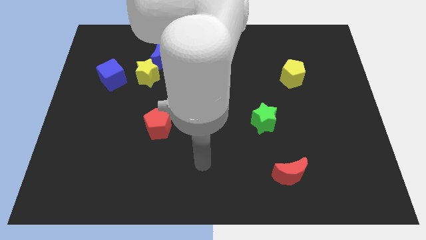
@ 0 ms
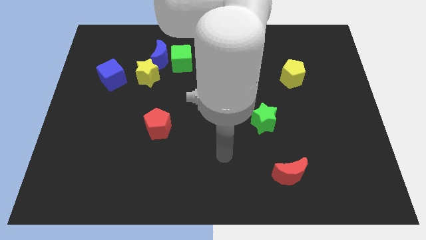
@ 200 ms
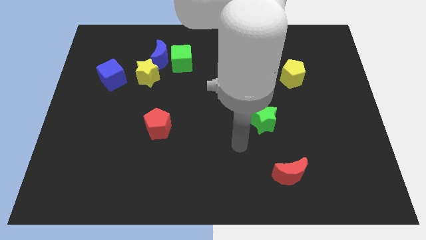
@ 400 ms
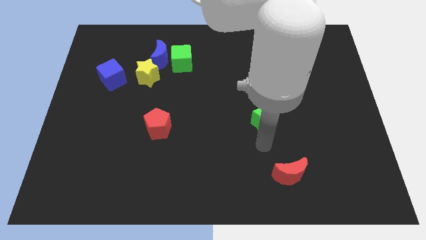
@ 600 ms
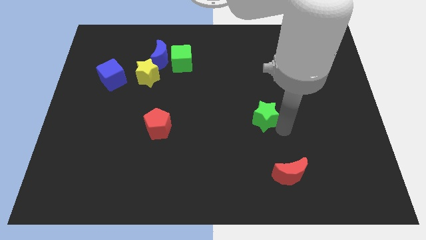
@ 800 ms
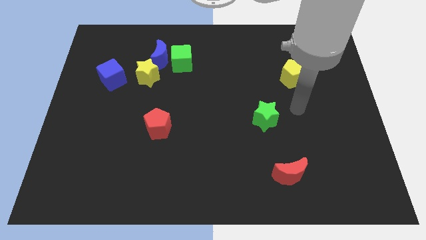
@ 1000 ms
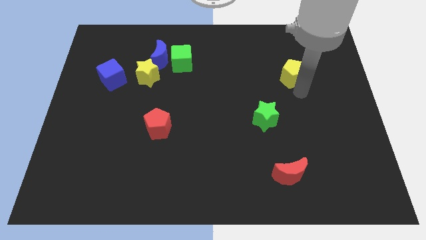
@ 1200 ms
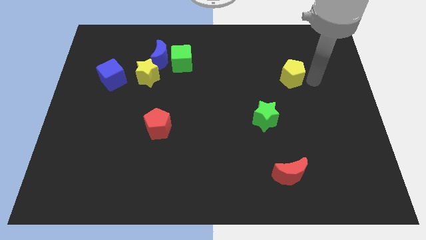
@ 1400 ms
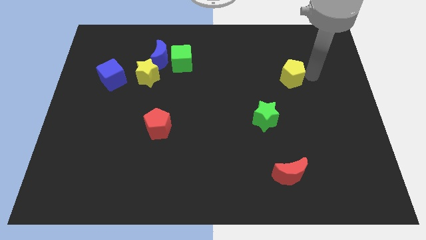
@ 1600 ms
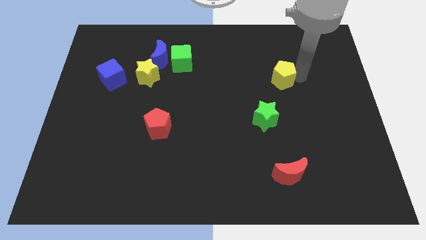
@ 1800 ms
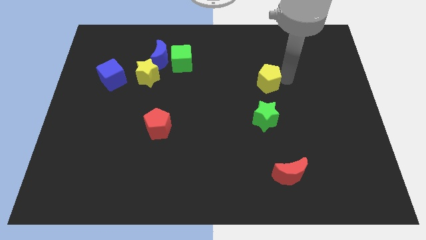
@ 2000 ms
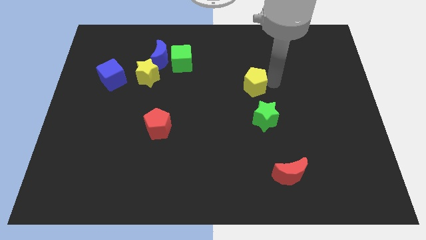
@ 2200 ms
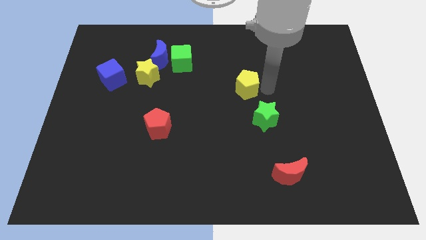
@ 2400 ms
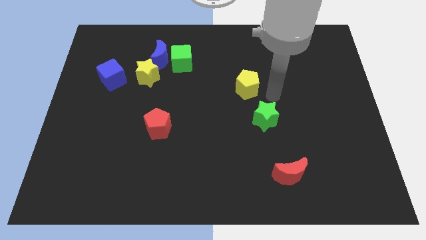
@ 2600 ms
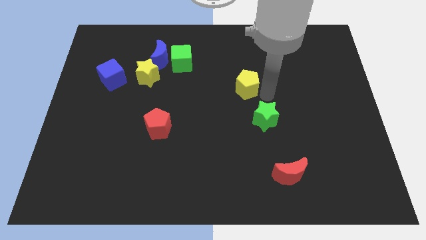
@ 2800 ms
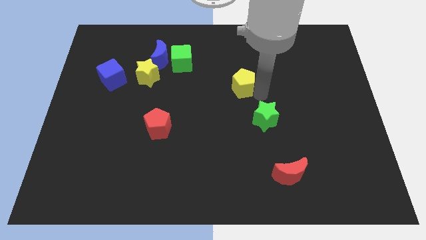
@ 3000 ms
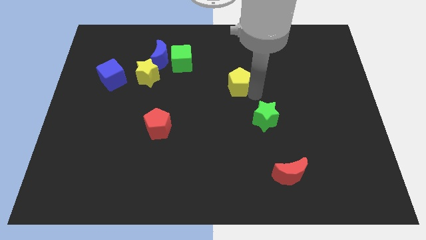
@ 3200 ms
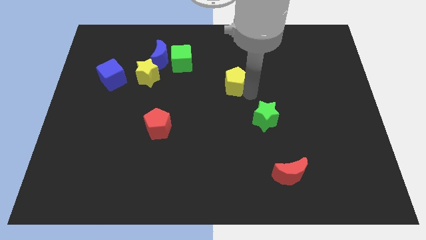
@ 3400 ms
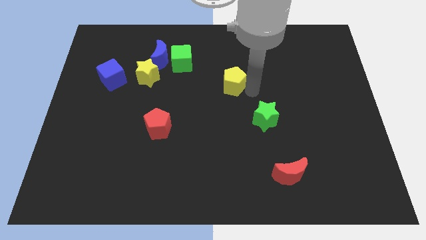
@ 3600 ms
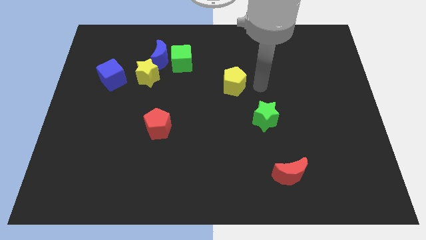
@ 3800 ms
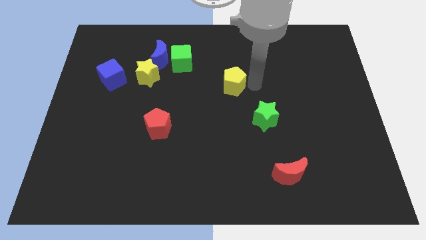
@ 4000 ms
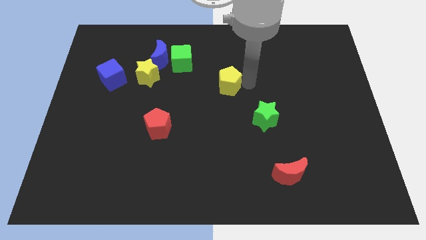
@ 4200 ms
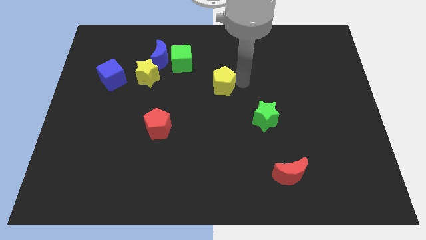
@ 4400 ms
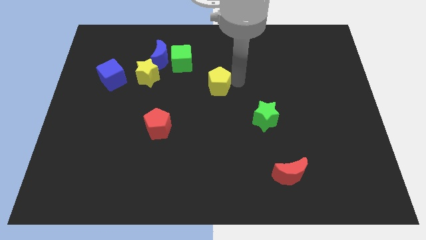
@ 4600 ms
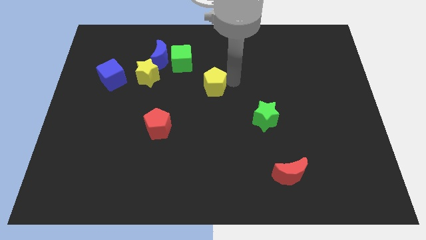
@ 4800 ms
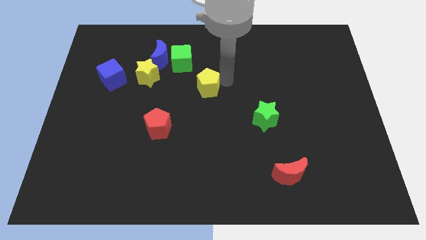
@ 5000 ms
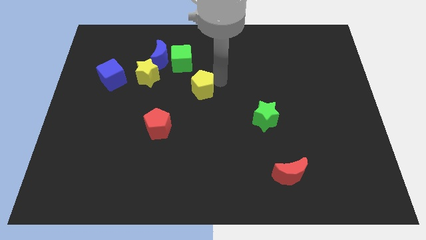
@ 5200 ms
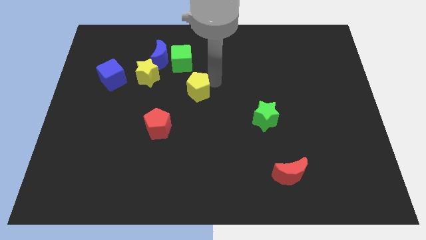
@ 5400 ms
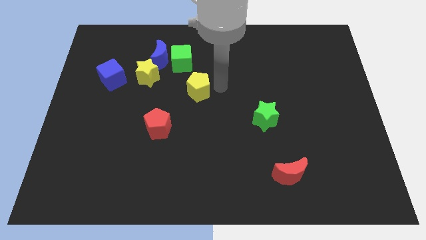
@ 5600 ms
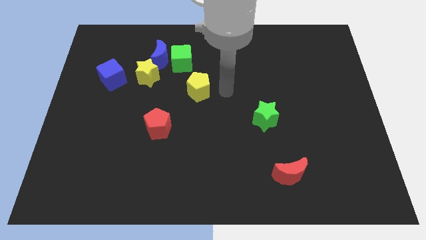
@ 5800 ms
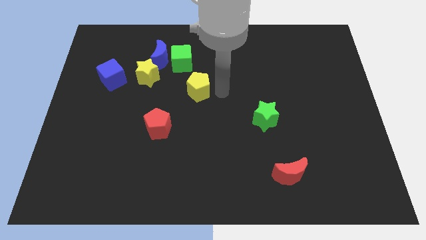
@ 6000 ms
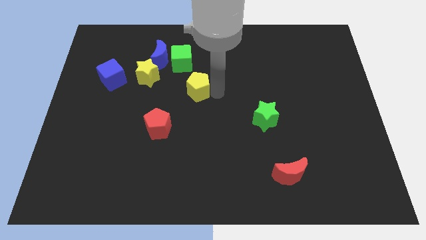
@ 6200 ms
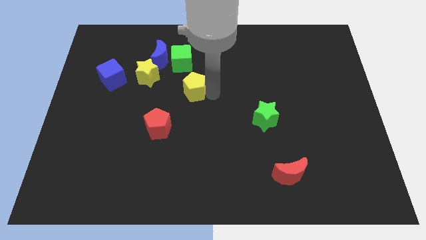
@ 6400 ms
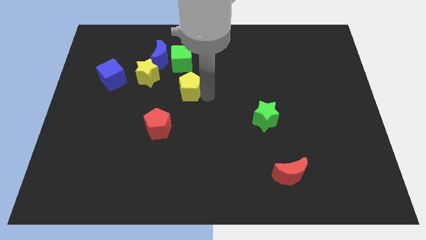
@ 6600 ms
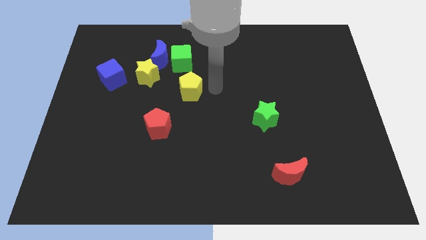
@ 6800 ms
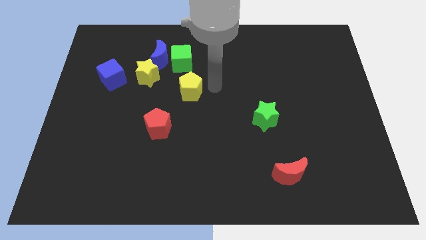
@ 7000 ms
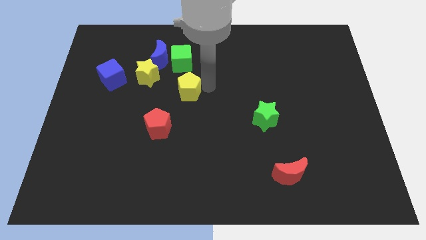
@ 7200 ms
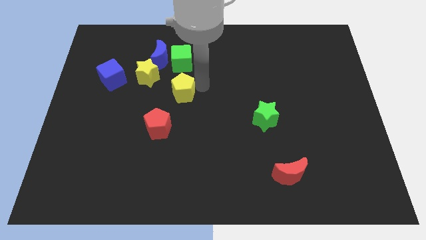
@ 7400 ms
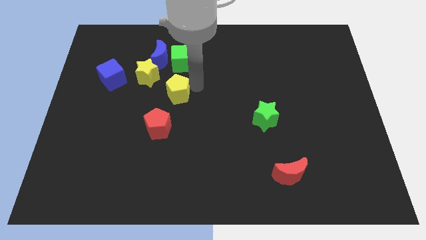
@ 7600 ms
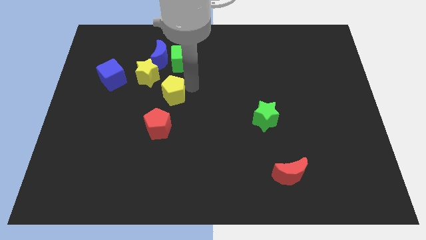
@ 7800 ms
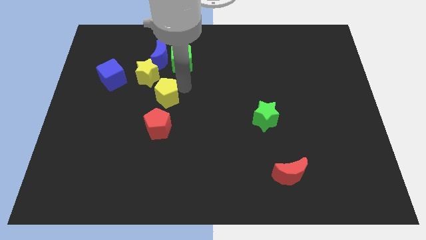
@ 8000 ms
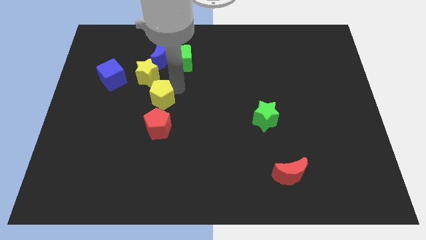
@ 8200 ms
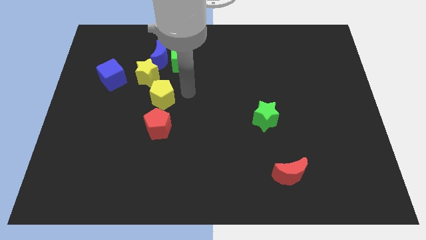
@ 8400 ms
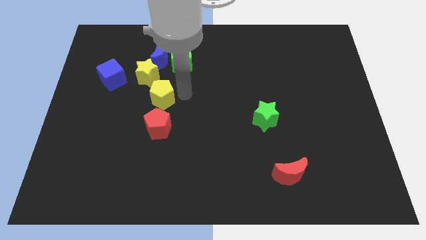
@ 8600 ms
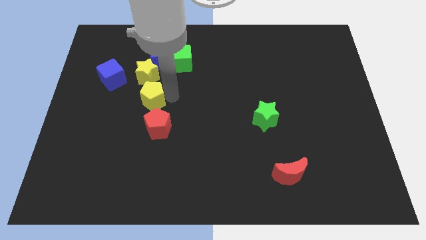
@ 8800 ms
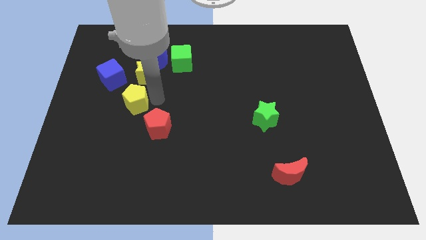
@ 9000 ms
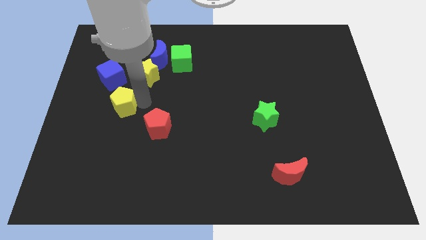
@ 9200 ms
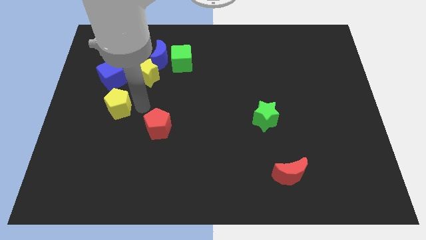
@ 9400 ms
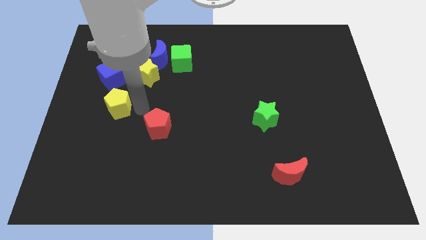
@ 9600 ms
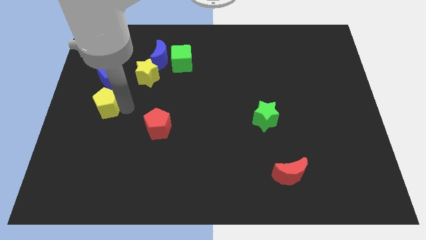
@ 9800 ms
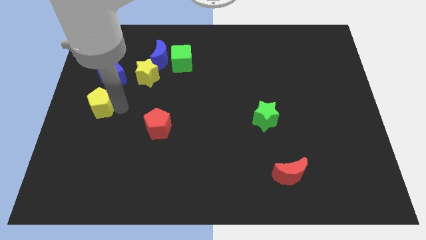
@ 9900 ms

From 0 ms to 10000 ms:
push the yellow pentagon to the left side

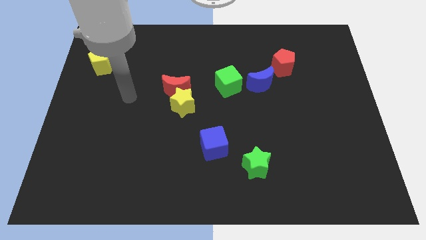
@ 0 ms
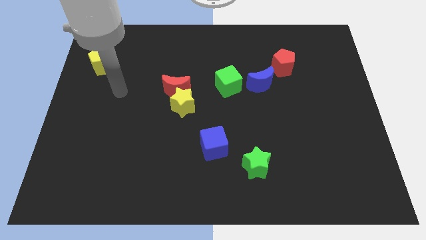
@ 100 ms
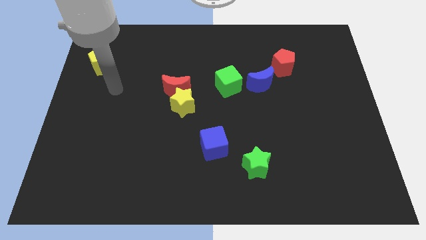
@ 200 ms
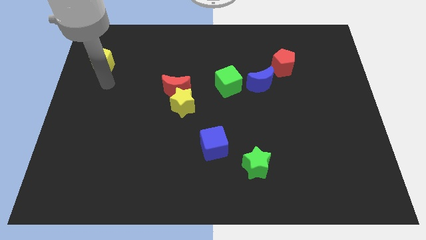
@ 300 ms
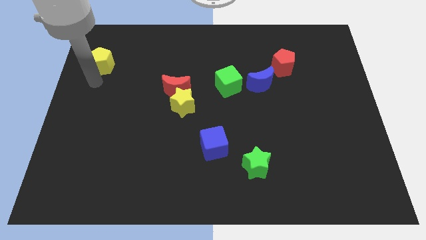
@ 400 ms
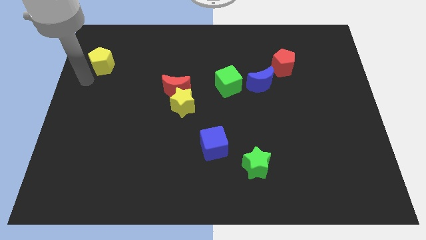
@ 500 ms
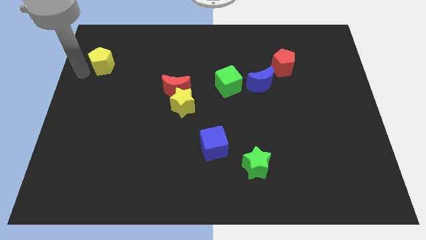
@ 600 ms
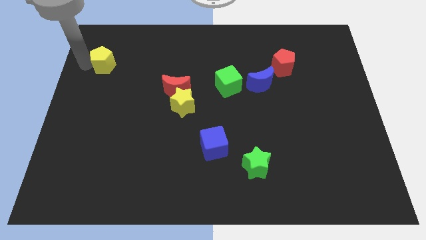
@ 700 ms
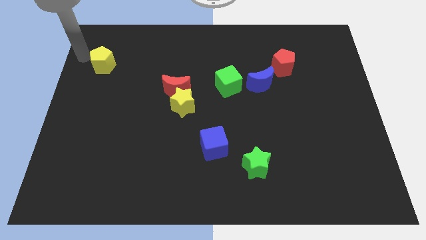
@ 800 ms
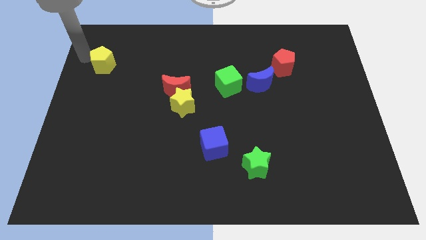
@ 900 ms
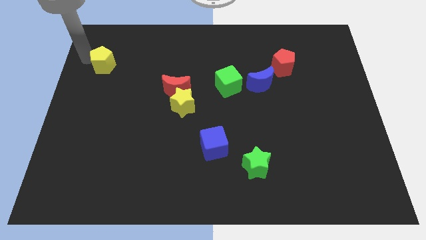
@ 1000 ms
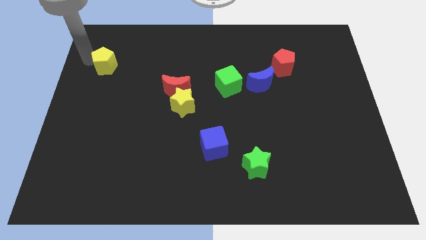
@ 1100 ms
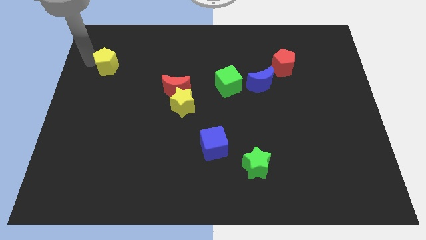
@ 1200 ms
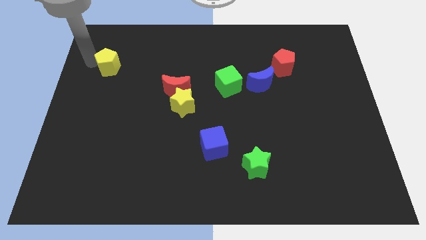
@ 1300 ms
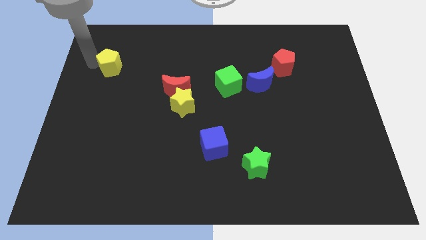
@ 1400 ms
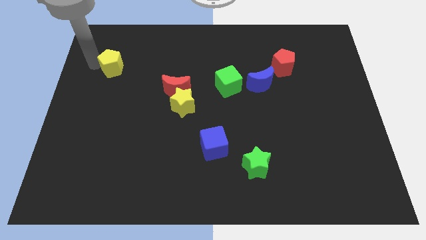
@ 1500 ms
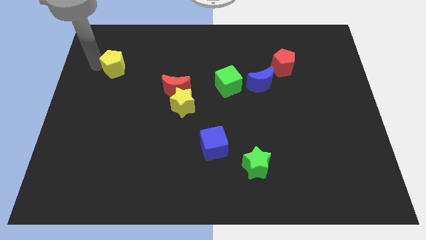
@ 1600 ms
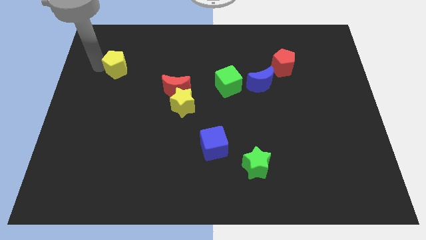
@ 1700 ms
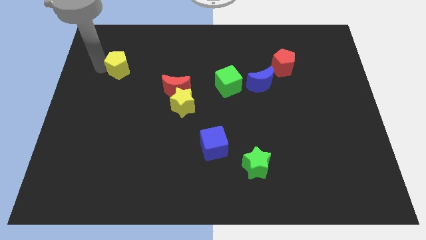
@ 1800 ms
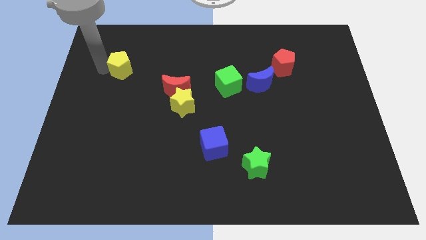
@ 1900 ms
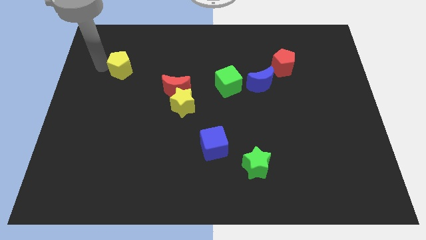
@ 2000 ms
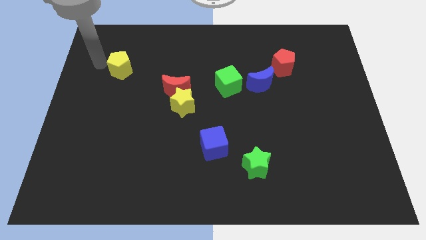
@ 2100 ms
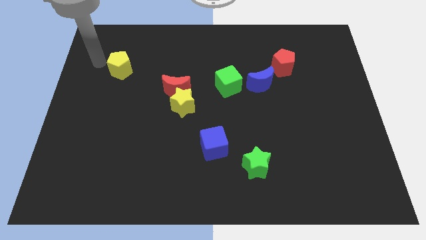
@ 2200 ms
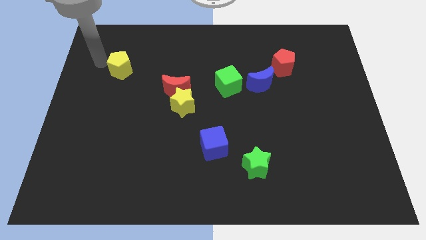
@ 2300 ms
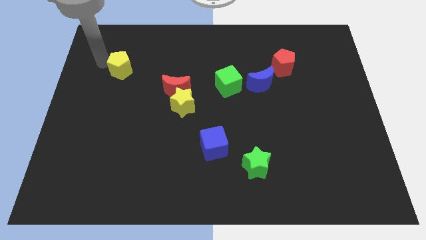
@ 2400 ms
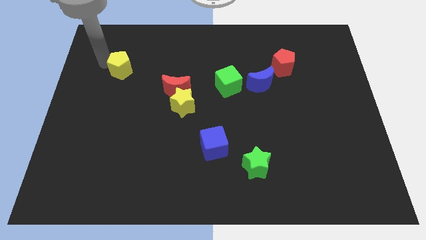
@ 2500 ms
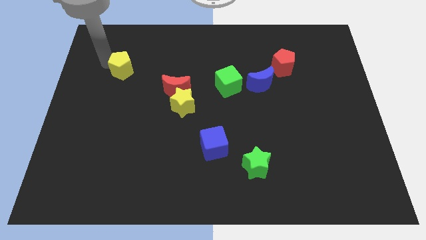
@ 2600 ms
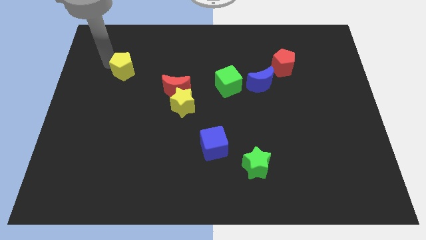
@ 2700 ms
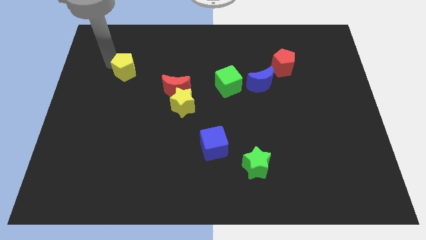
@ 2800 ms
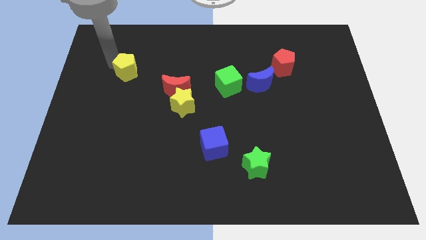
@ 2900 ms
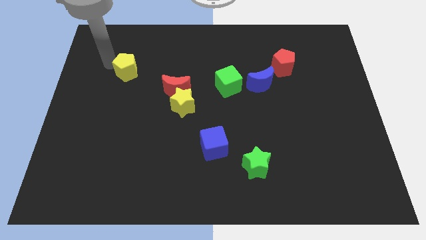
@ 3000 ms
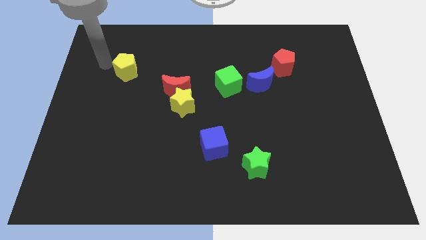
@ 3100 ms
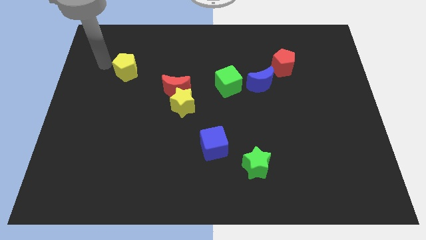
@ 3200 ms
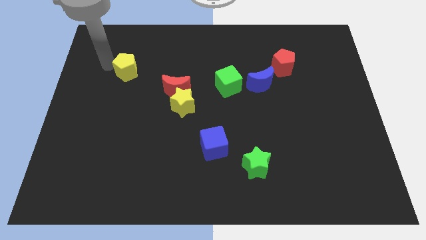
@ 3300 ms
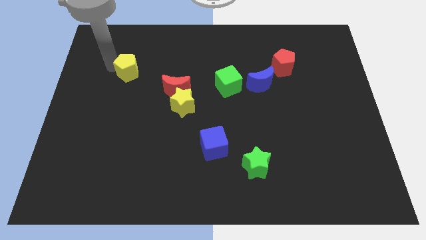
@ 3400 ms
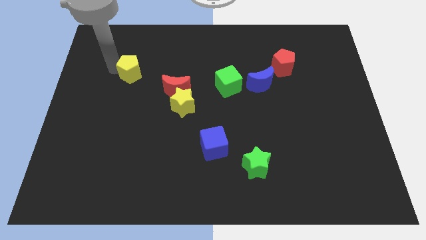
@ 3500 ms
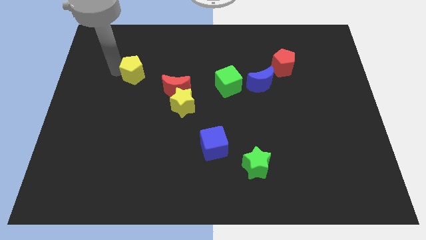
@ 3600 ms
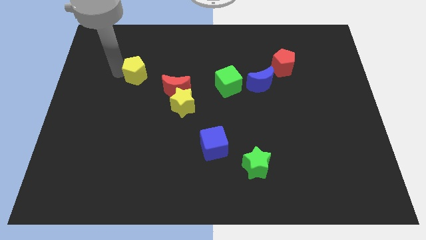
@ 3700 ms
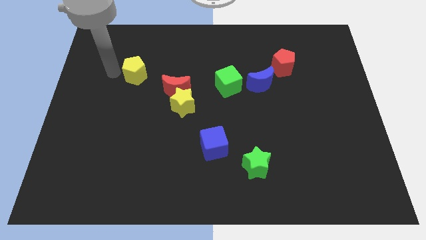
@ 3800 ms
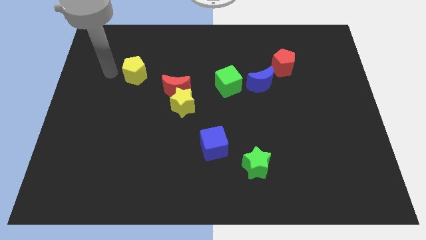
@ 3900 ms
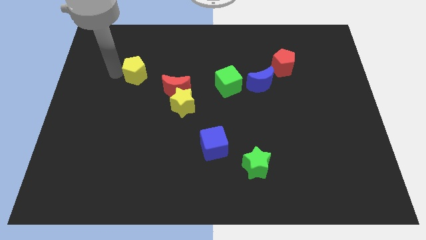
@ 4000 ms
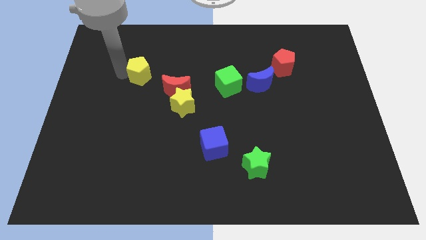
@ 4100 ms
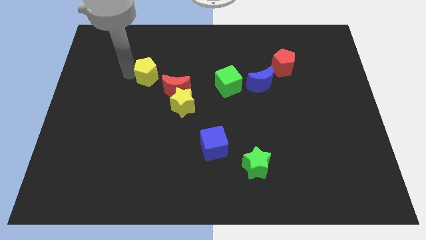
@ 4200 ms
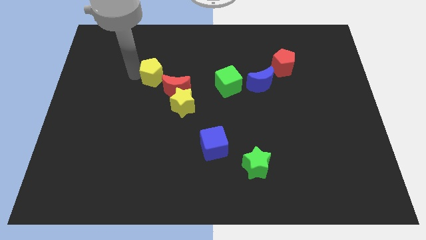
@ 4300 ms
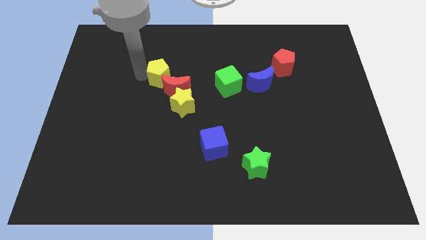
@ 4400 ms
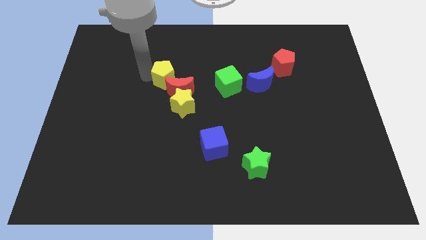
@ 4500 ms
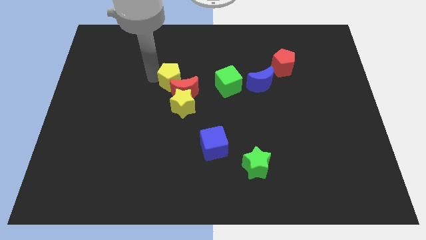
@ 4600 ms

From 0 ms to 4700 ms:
move the yellow pentagon to the middle
